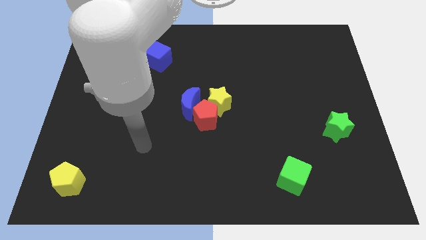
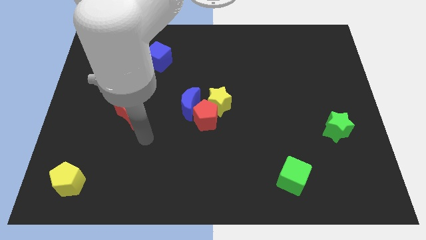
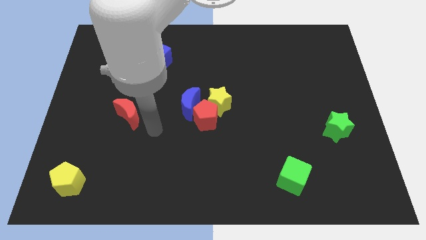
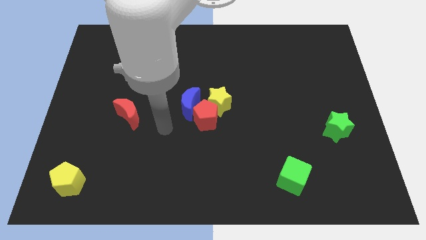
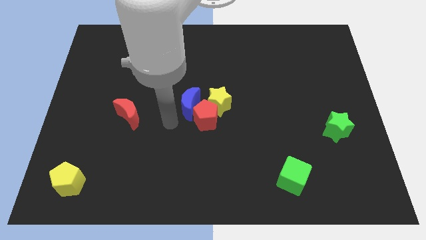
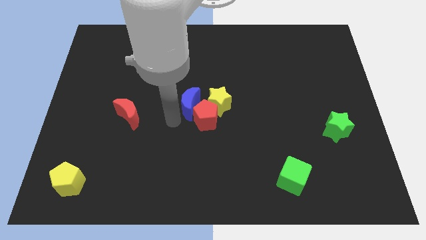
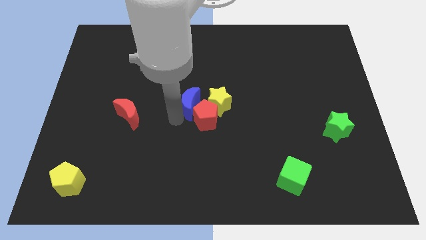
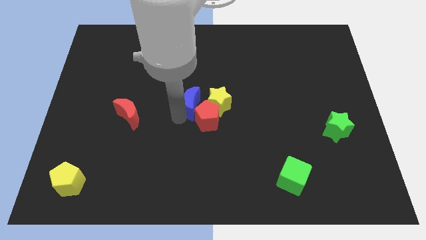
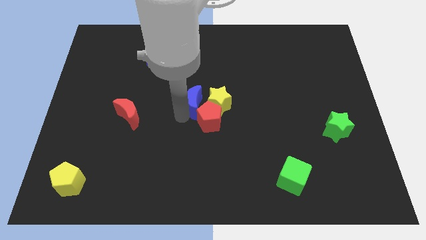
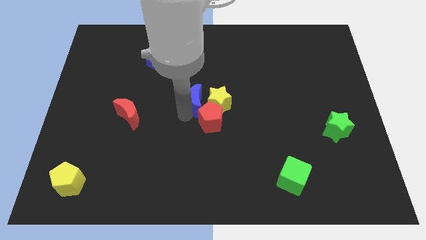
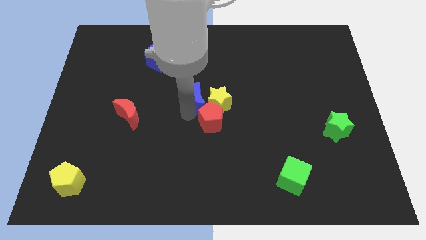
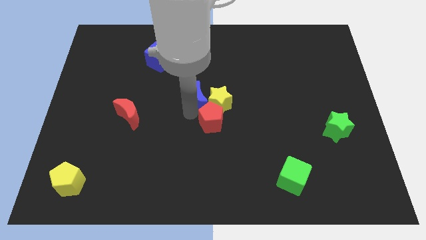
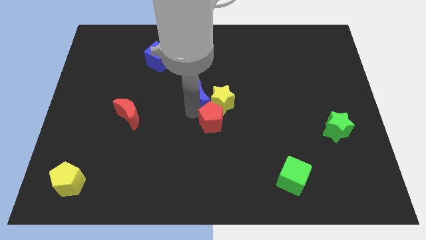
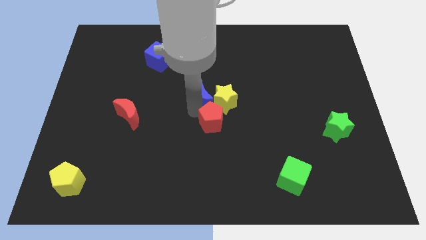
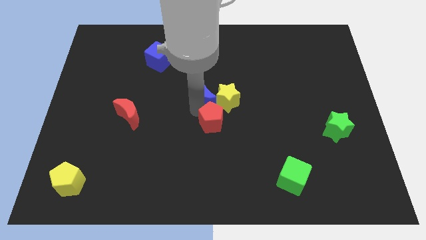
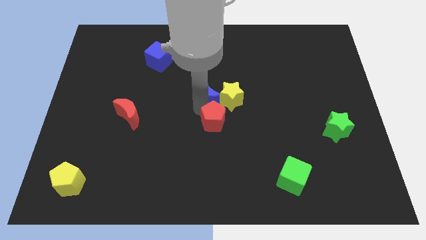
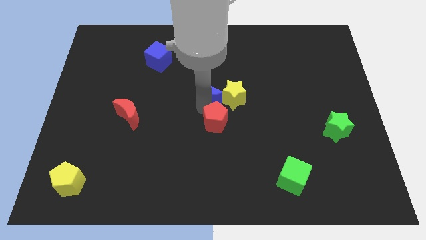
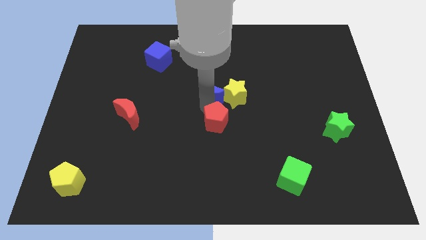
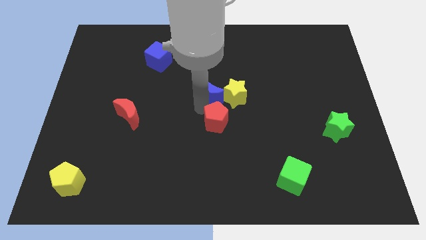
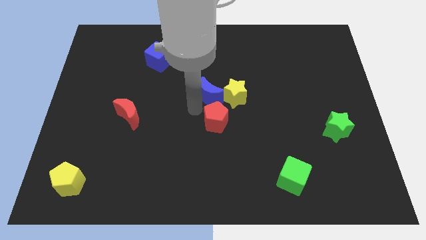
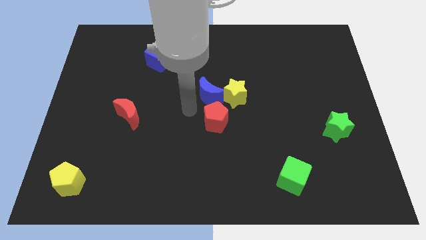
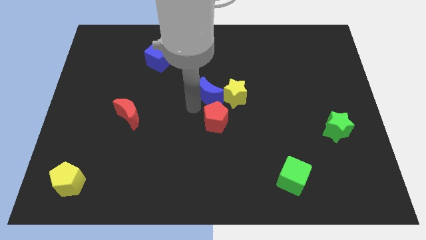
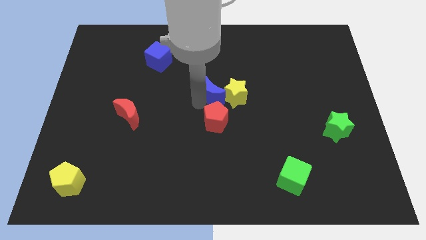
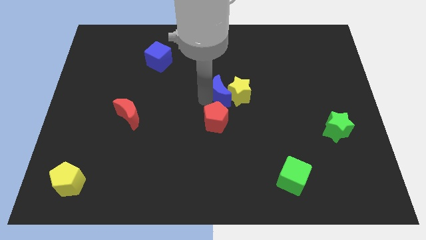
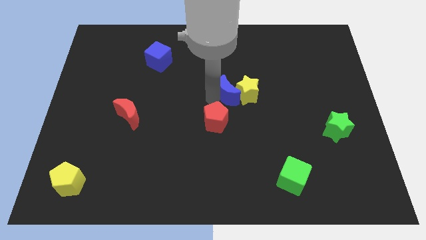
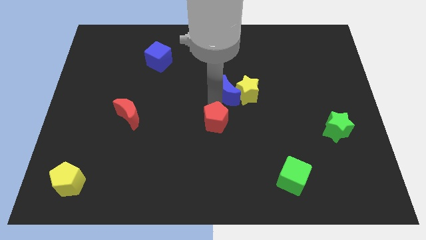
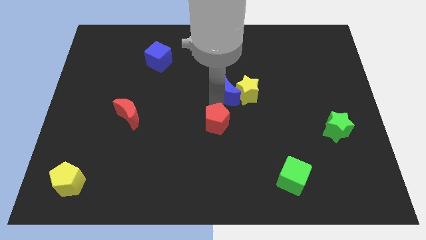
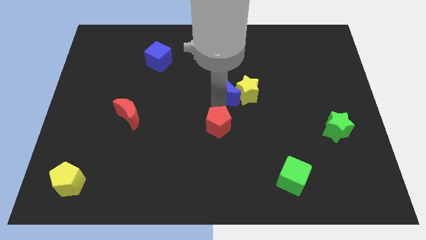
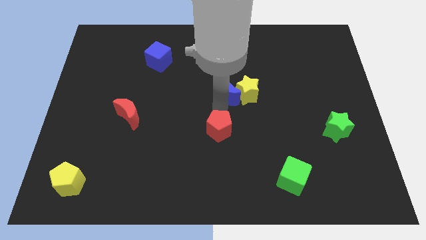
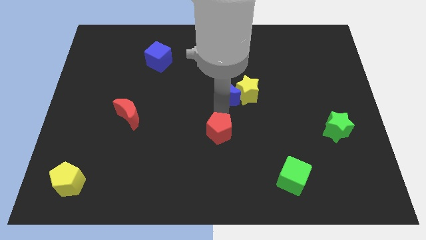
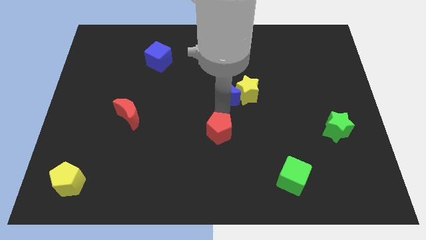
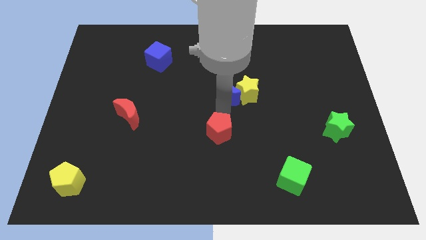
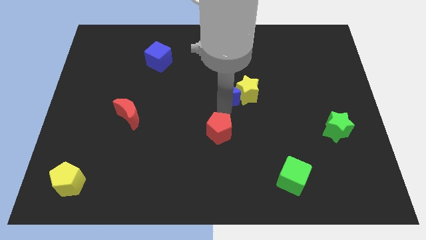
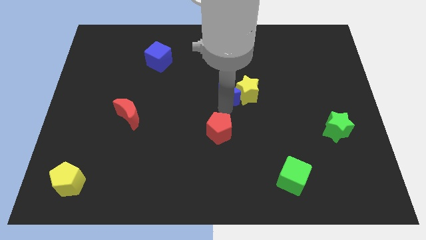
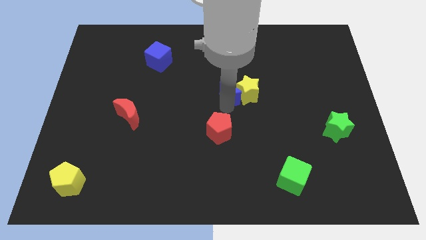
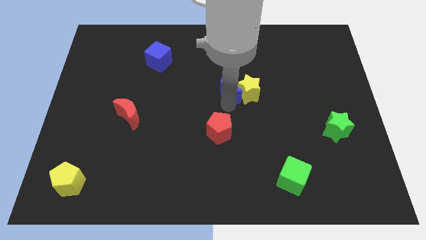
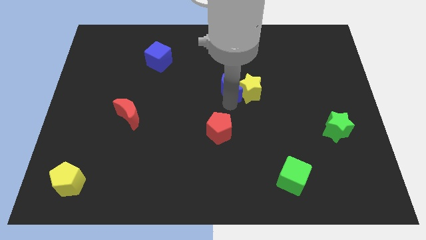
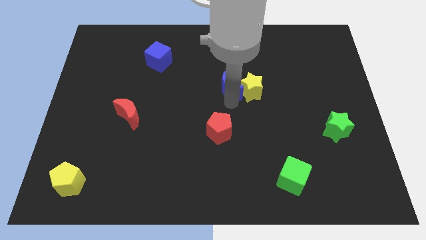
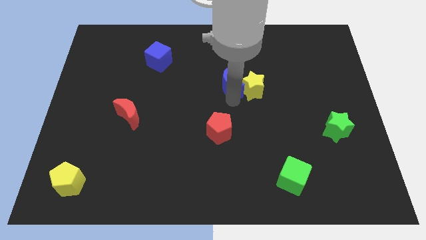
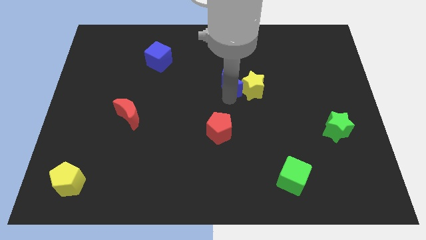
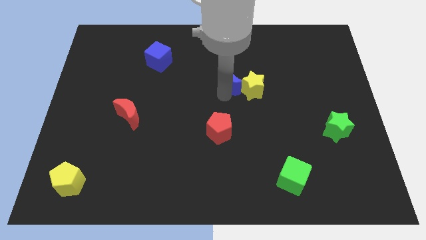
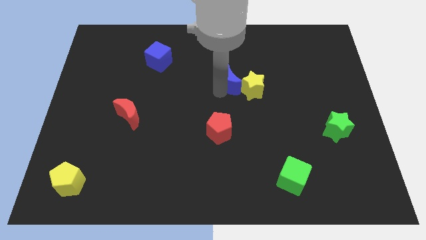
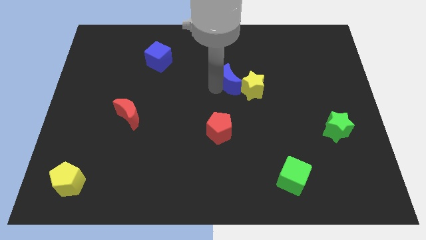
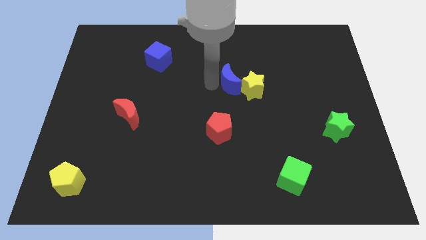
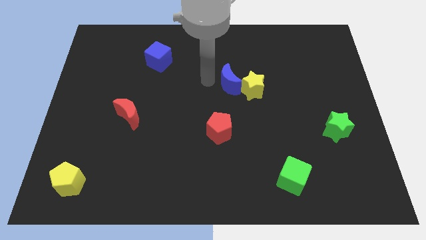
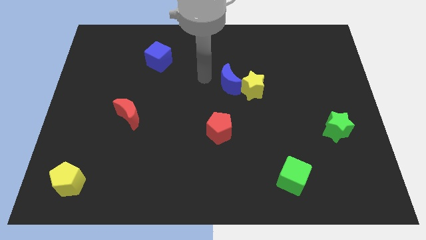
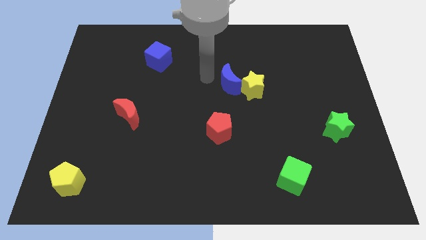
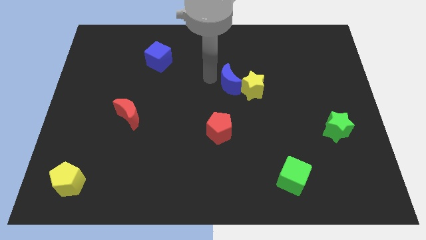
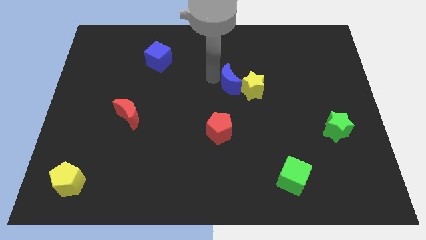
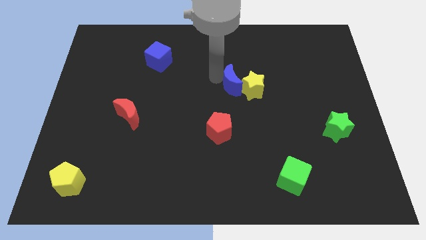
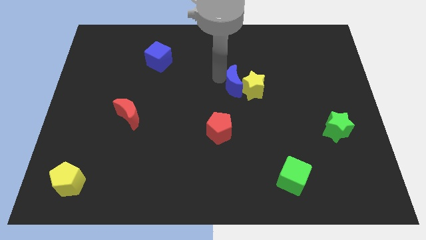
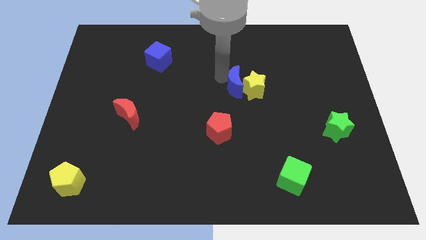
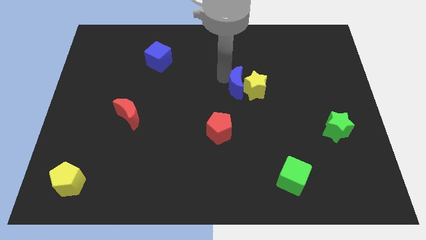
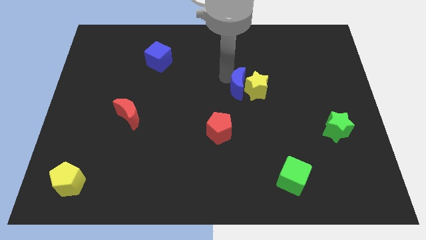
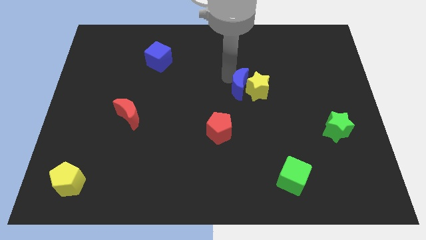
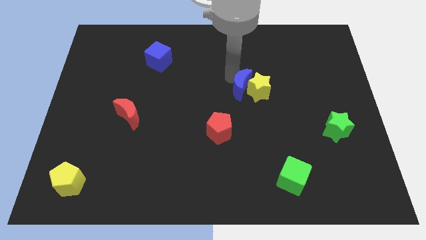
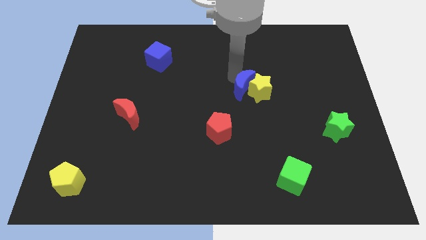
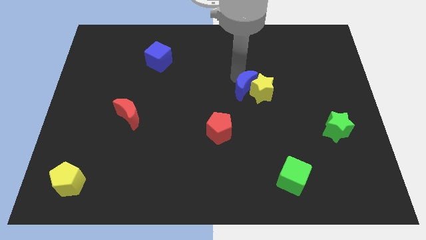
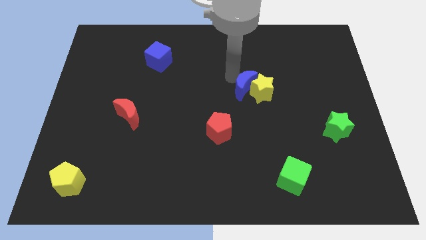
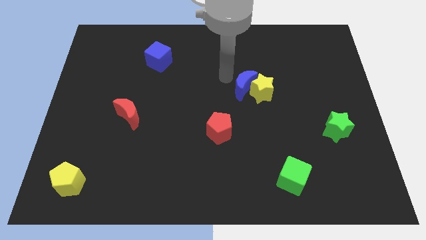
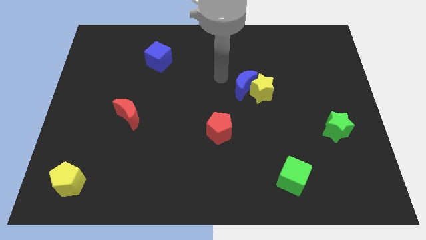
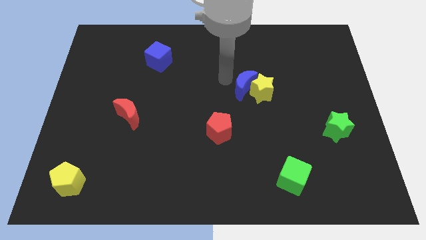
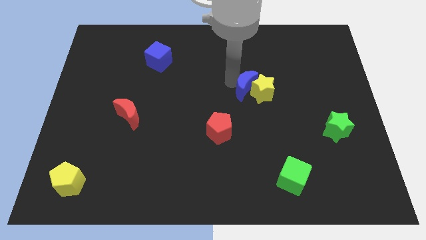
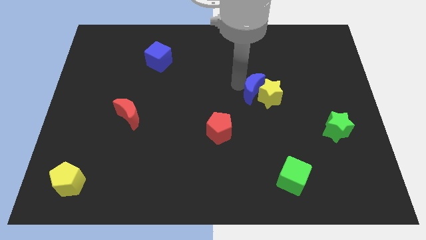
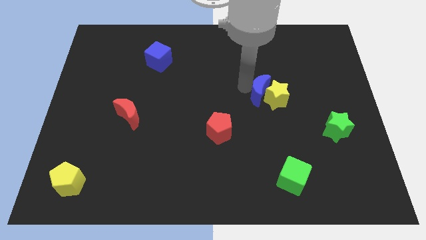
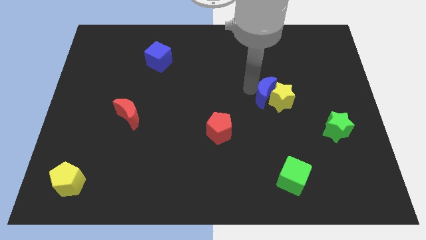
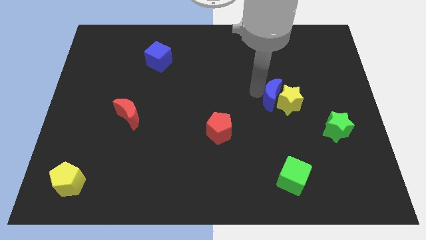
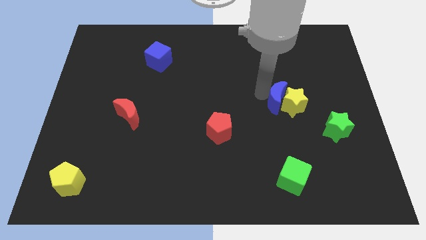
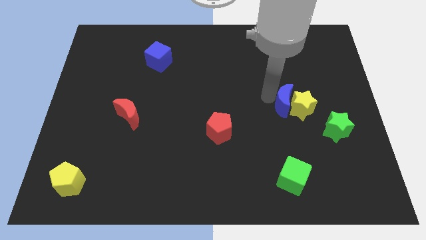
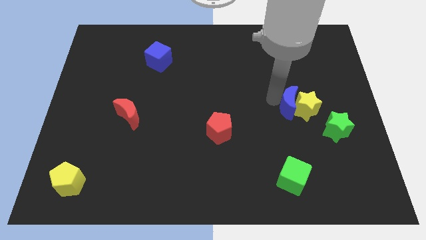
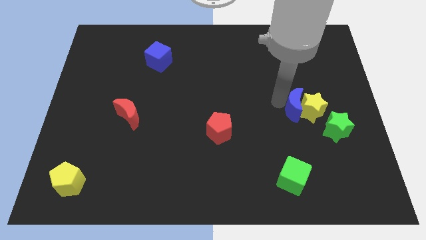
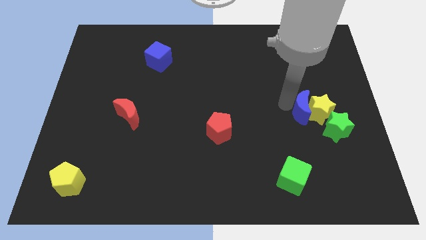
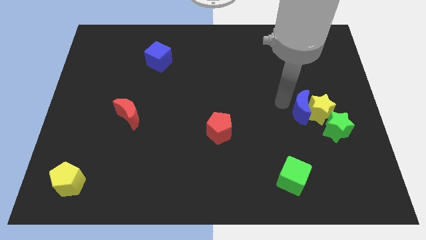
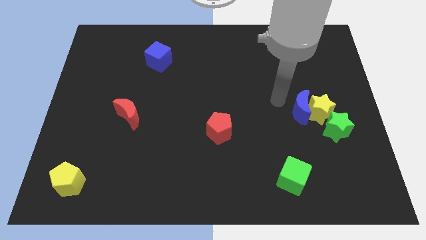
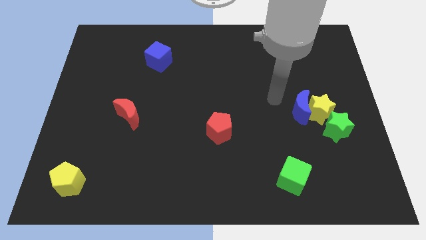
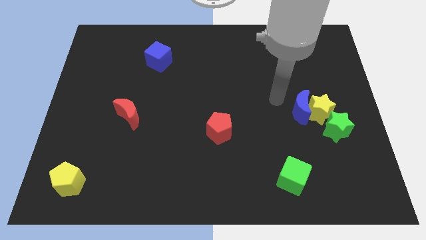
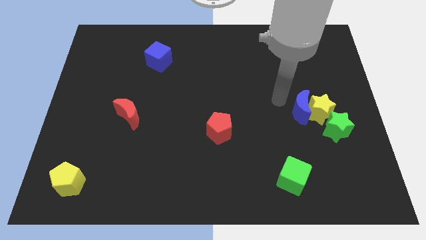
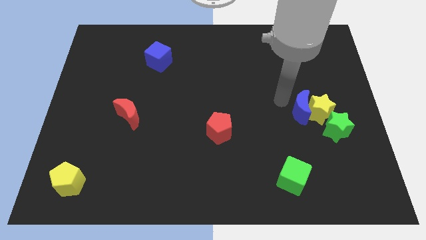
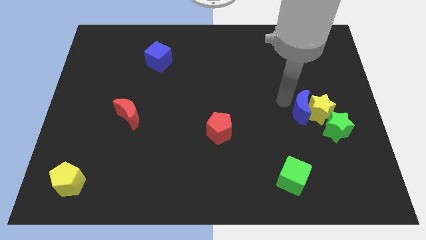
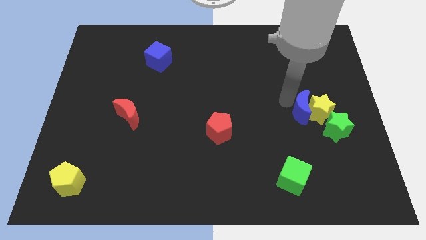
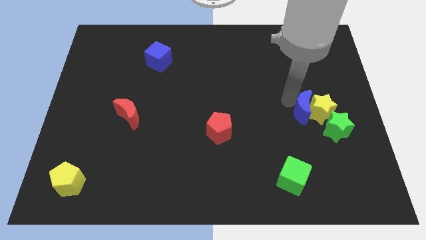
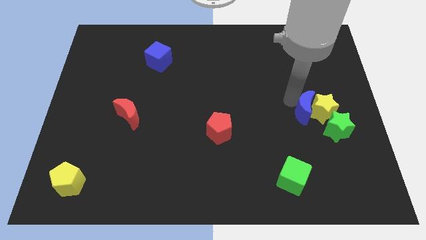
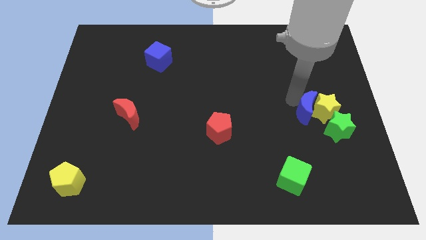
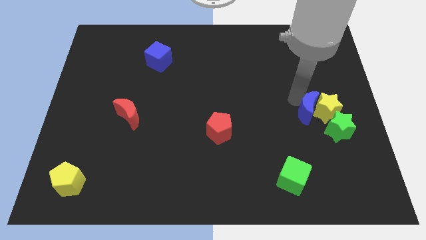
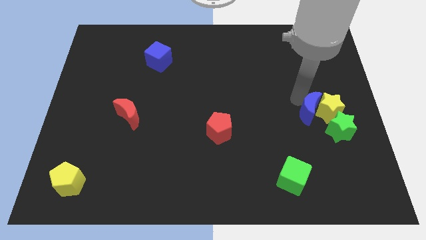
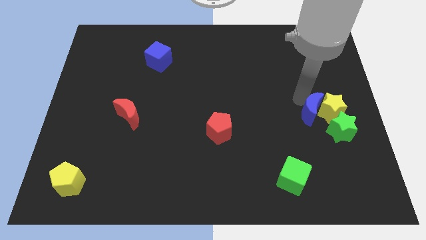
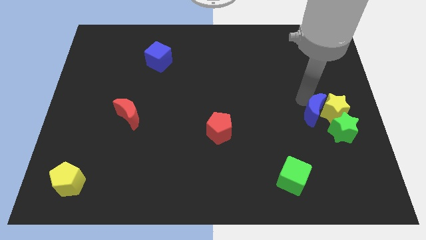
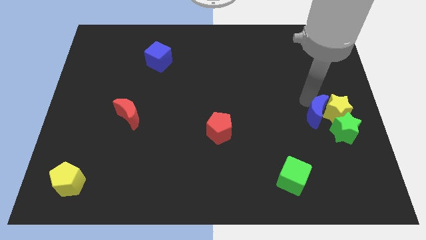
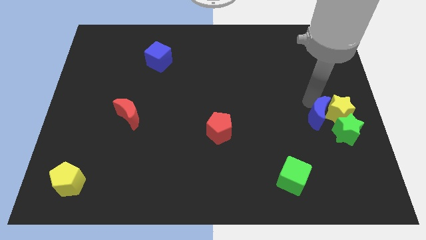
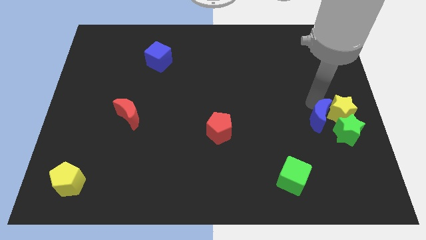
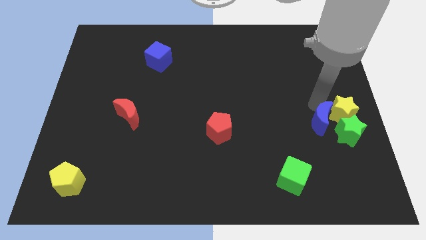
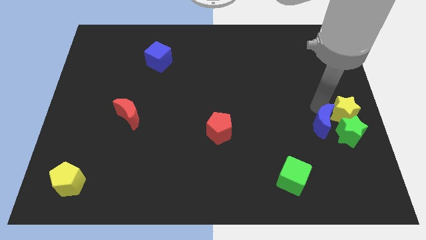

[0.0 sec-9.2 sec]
slide the blue moon to the green star
